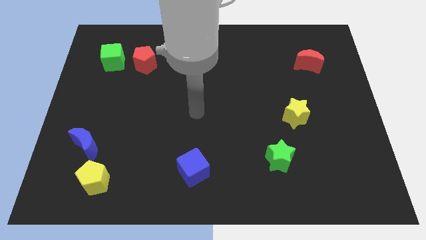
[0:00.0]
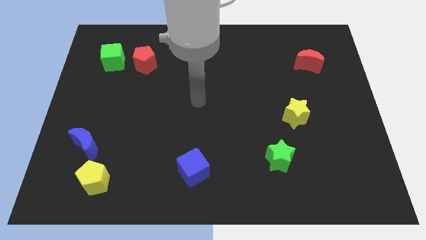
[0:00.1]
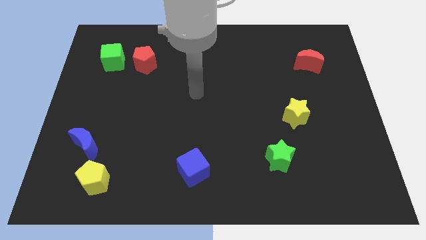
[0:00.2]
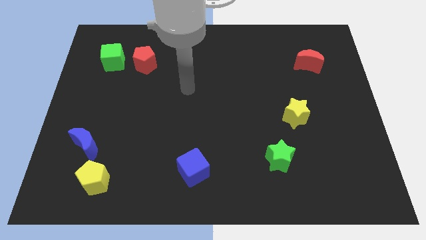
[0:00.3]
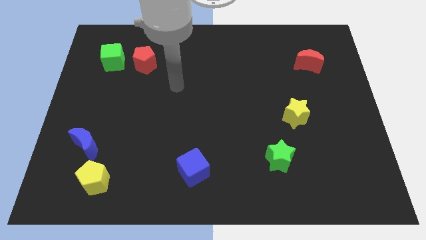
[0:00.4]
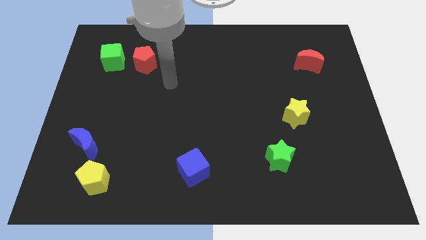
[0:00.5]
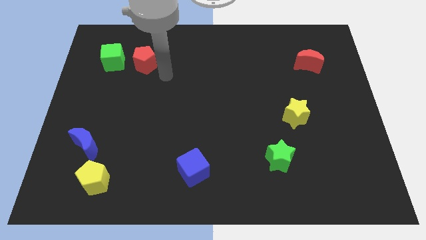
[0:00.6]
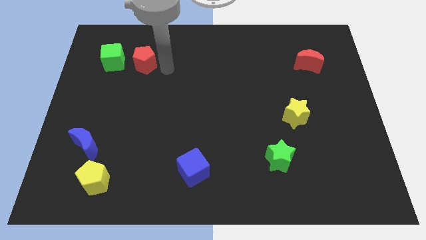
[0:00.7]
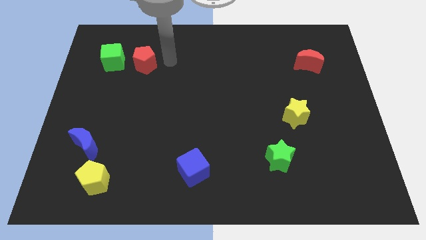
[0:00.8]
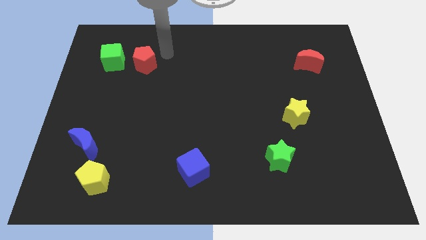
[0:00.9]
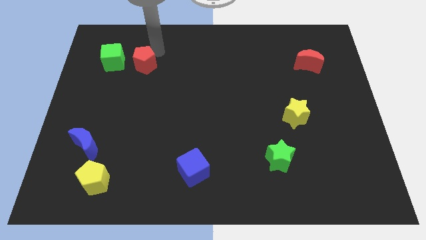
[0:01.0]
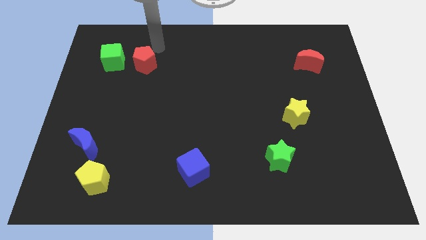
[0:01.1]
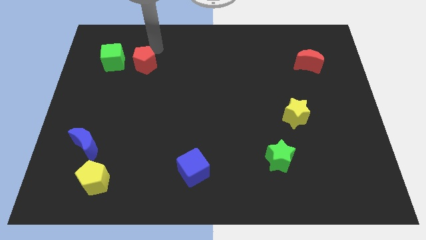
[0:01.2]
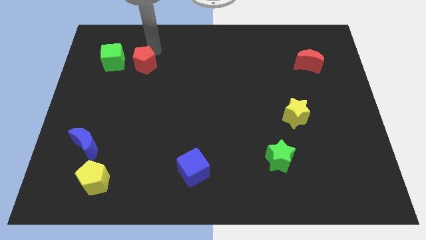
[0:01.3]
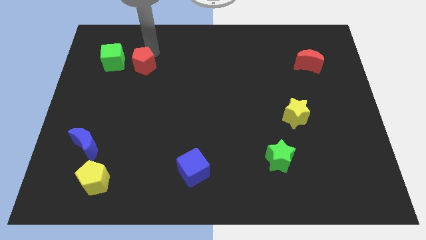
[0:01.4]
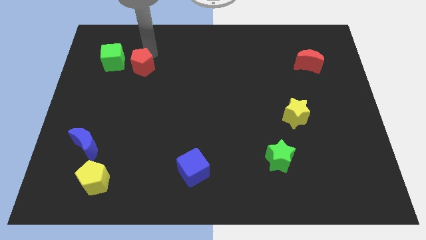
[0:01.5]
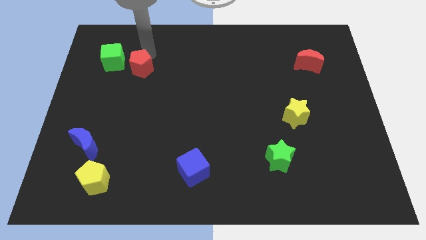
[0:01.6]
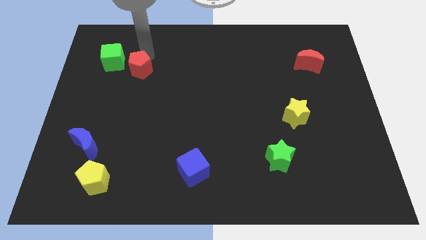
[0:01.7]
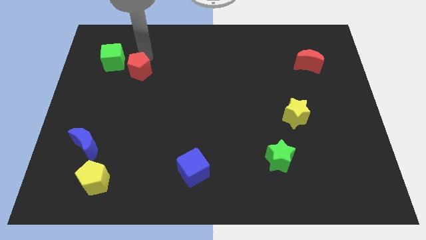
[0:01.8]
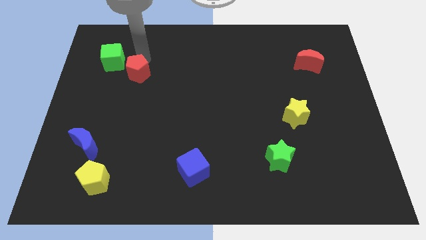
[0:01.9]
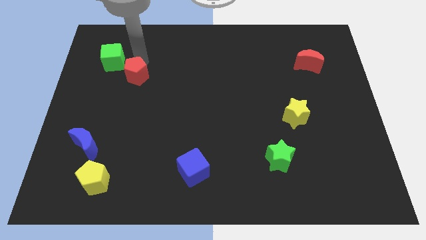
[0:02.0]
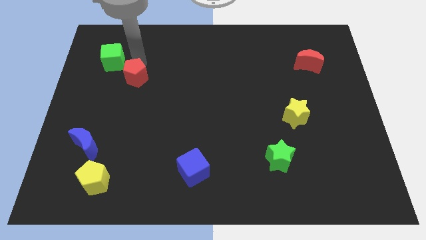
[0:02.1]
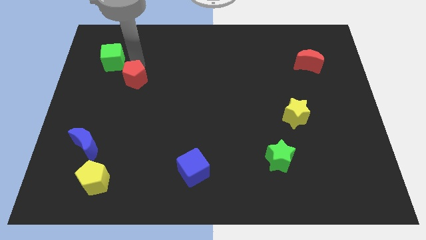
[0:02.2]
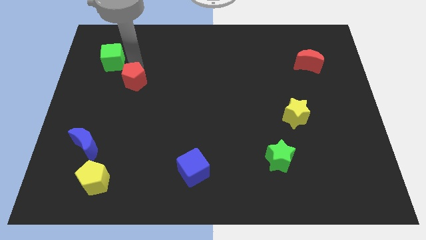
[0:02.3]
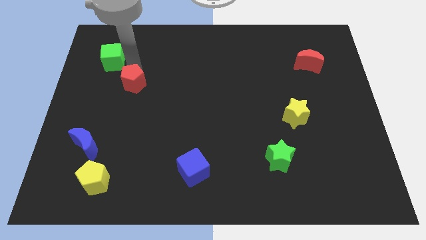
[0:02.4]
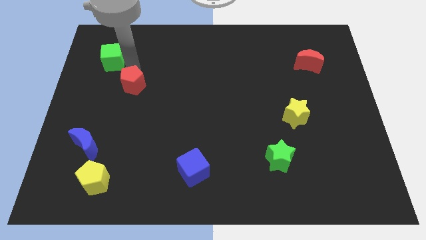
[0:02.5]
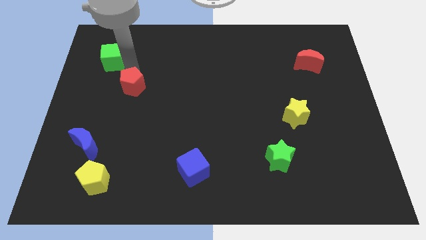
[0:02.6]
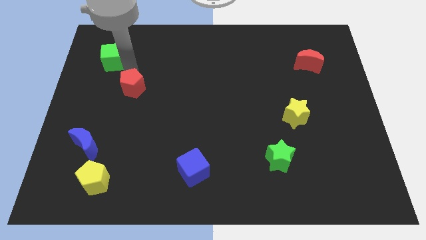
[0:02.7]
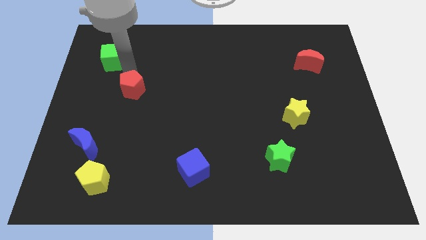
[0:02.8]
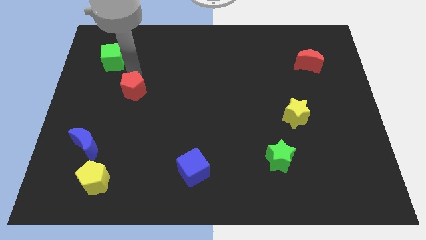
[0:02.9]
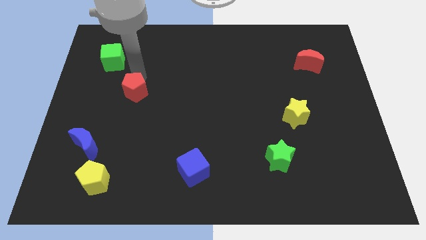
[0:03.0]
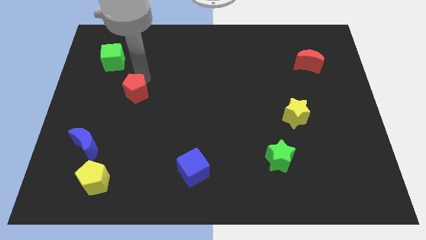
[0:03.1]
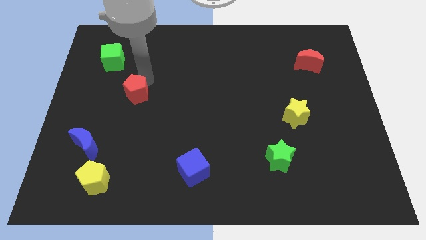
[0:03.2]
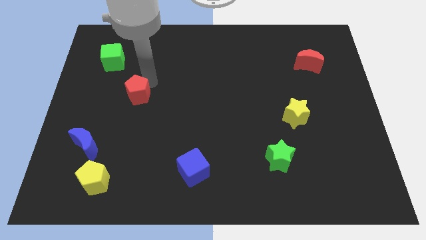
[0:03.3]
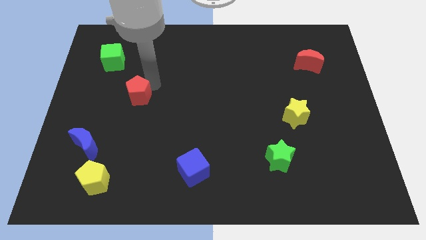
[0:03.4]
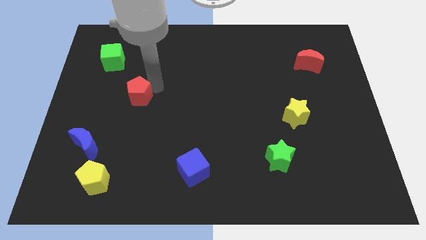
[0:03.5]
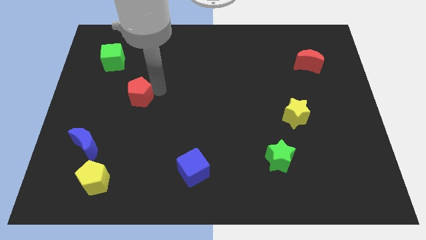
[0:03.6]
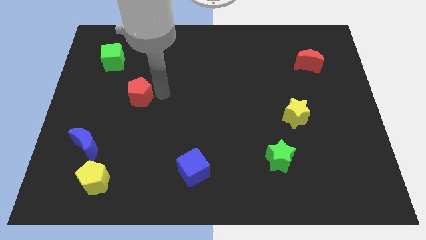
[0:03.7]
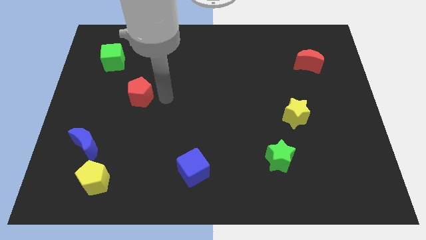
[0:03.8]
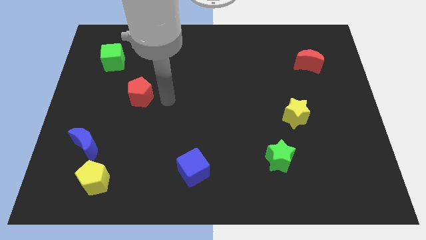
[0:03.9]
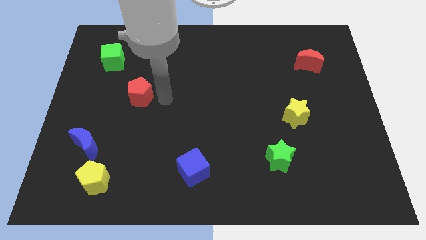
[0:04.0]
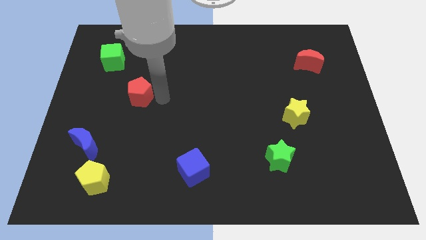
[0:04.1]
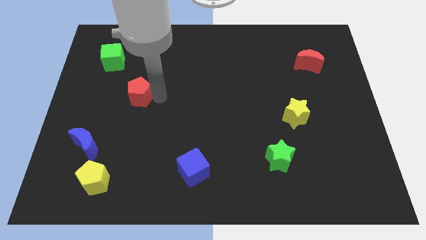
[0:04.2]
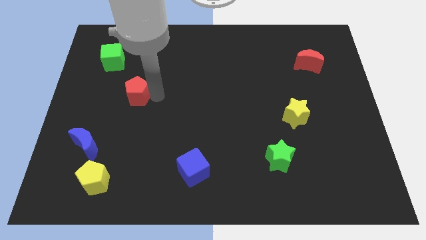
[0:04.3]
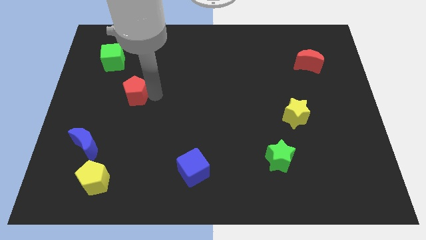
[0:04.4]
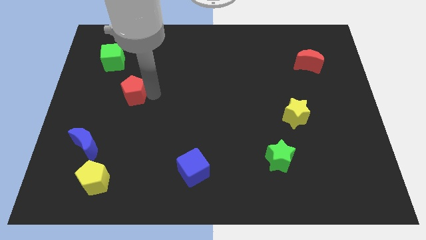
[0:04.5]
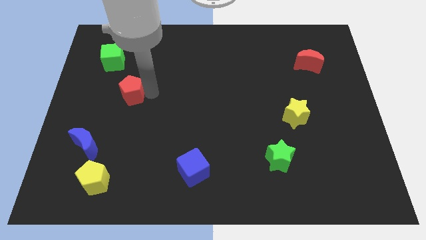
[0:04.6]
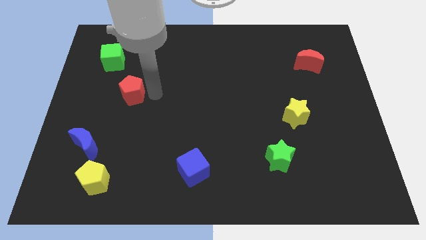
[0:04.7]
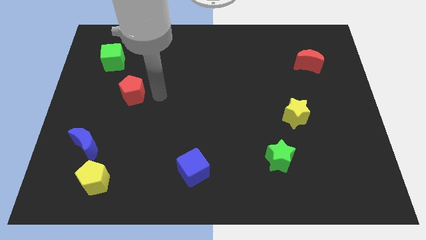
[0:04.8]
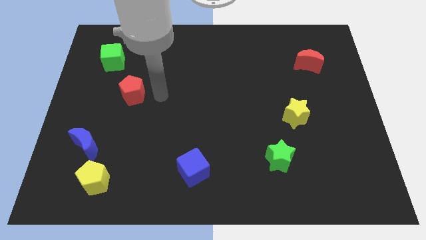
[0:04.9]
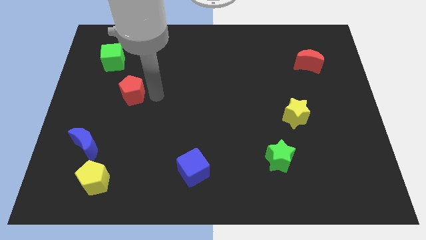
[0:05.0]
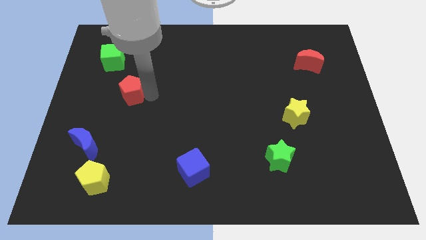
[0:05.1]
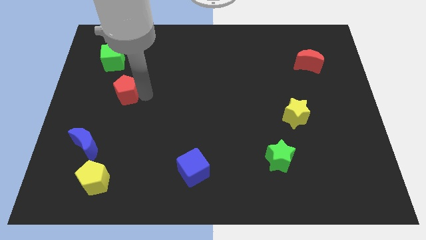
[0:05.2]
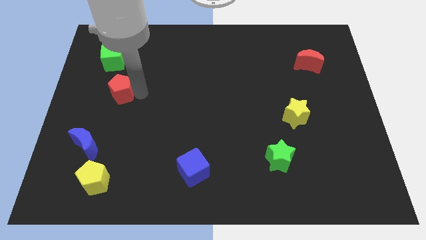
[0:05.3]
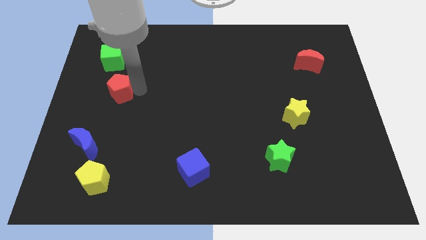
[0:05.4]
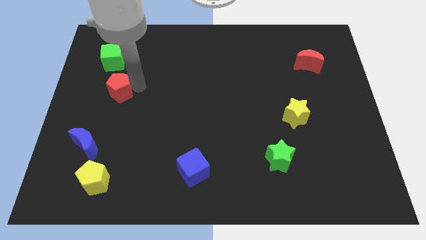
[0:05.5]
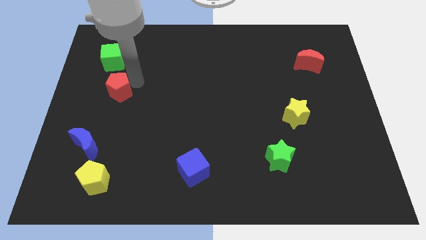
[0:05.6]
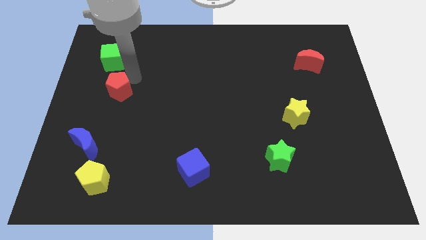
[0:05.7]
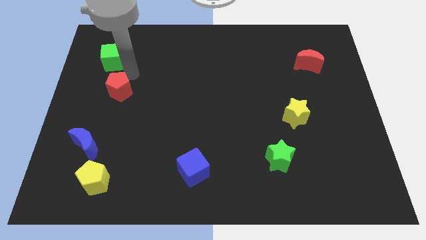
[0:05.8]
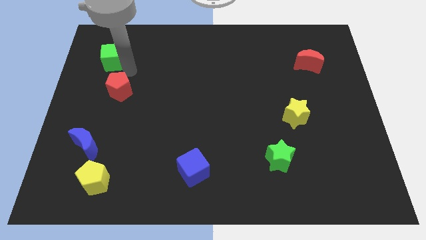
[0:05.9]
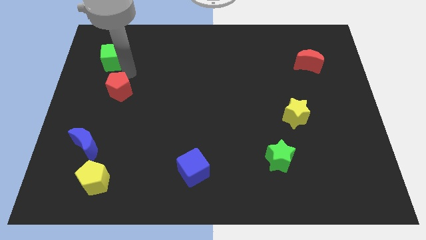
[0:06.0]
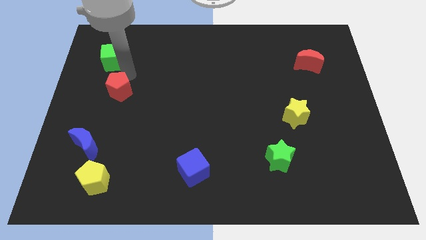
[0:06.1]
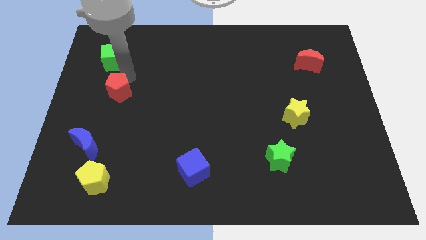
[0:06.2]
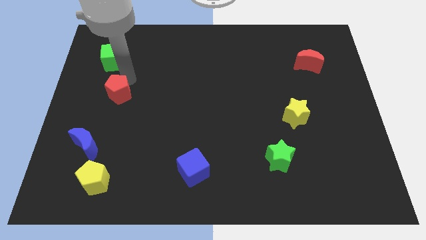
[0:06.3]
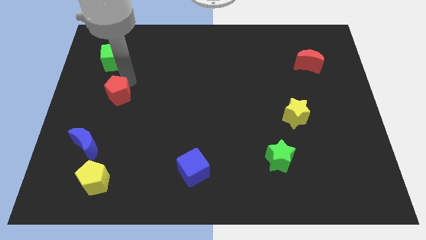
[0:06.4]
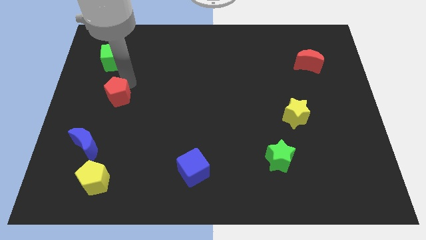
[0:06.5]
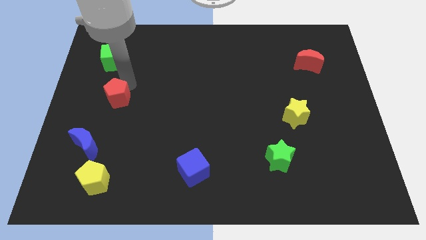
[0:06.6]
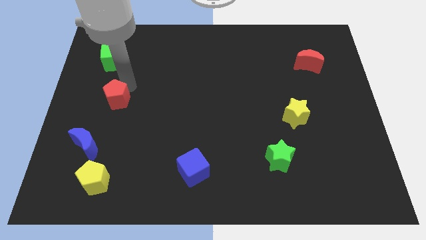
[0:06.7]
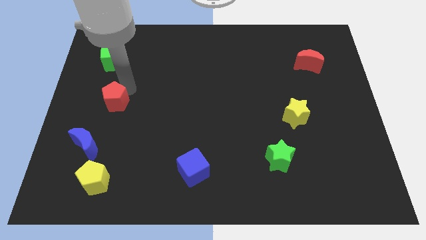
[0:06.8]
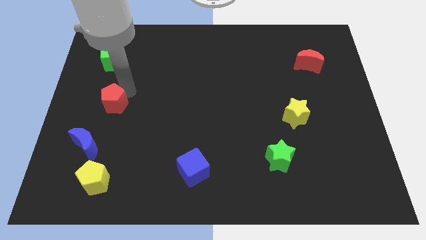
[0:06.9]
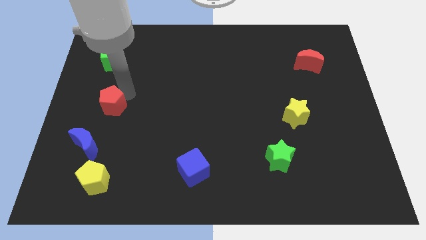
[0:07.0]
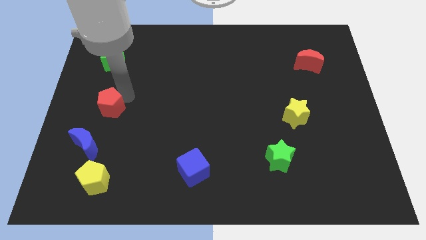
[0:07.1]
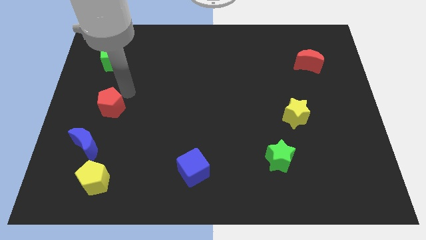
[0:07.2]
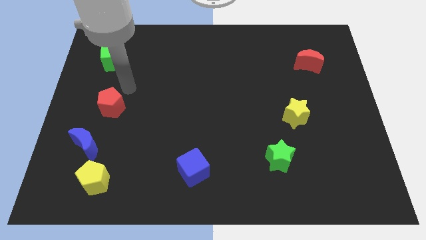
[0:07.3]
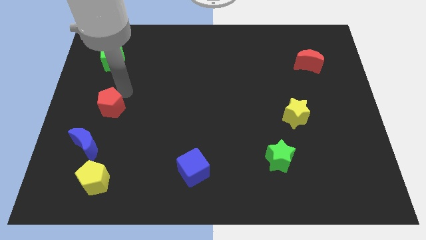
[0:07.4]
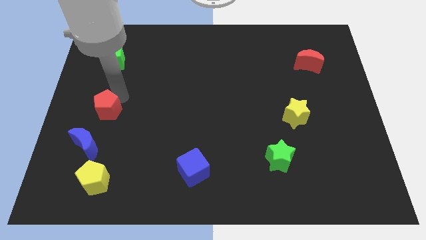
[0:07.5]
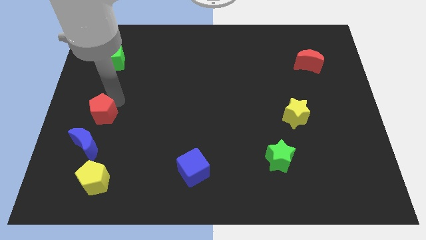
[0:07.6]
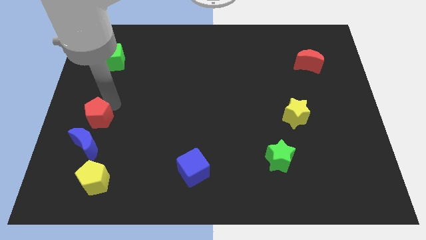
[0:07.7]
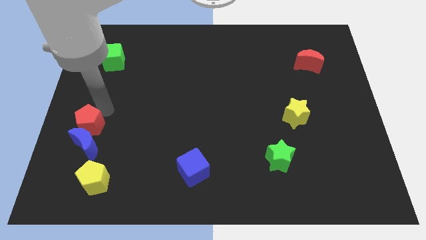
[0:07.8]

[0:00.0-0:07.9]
put the red pentagon to the blue moon
